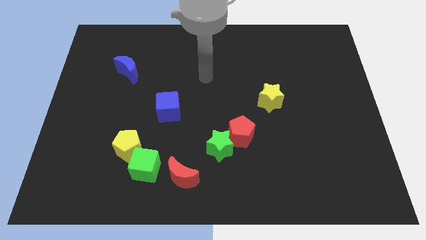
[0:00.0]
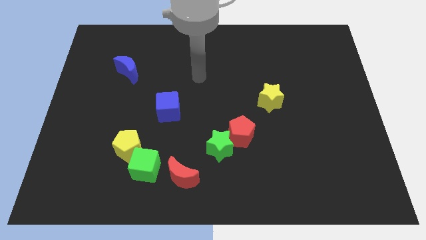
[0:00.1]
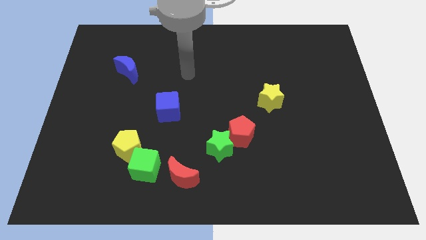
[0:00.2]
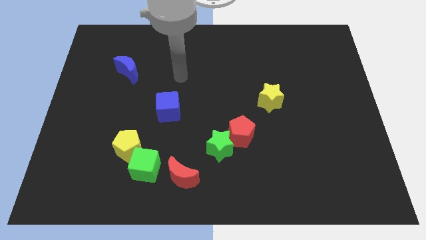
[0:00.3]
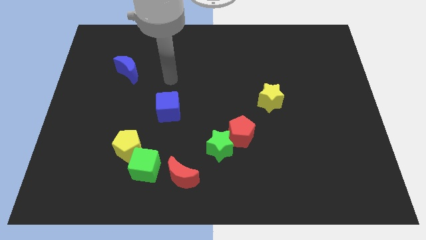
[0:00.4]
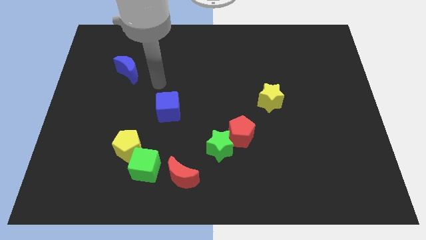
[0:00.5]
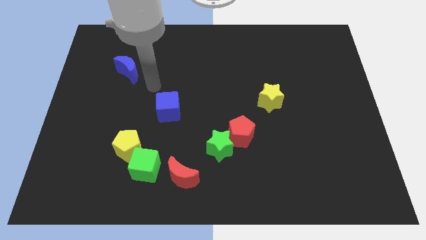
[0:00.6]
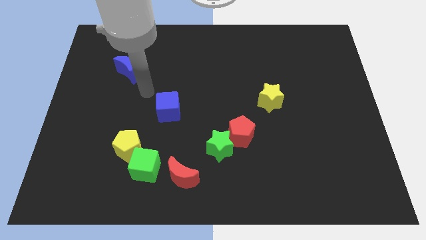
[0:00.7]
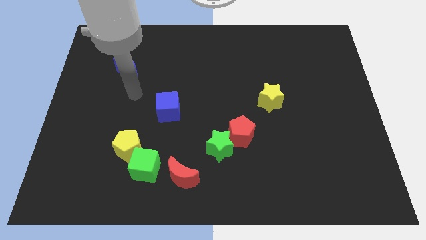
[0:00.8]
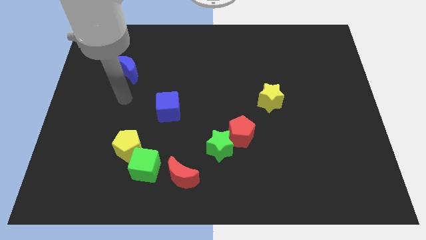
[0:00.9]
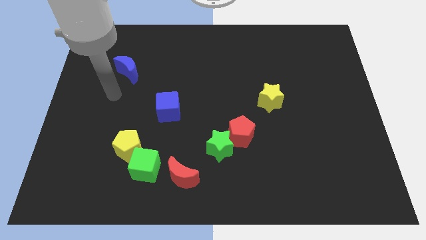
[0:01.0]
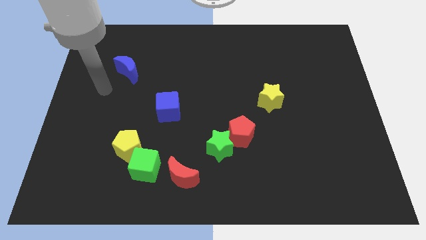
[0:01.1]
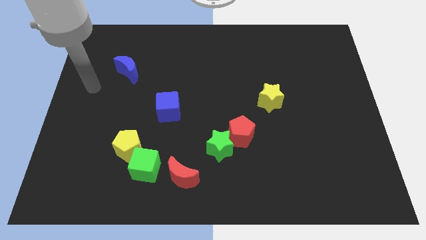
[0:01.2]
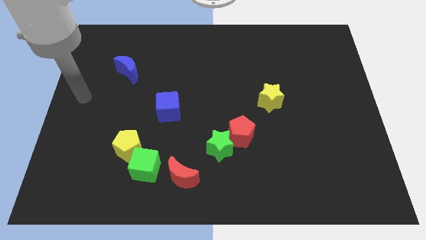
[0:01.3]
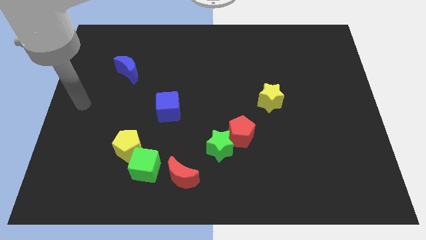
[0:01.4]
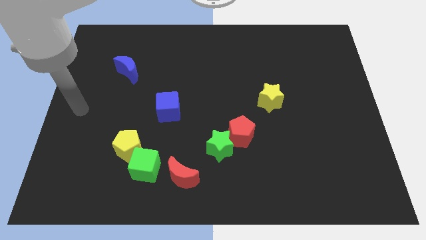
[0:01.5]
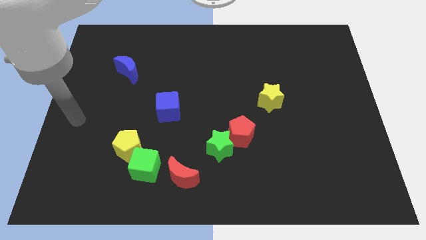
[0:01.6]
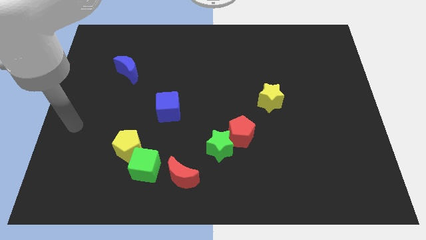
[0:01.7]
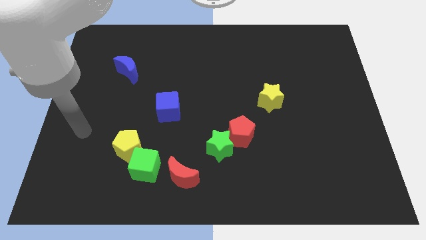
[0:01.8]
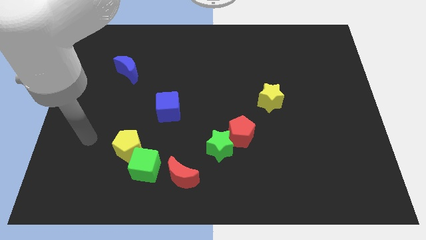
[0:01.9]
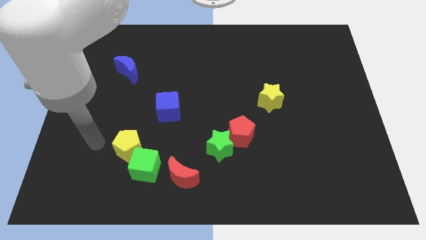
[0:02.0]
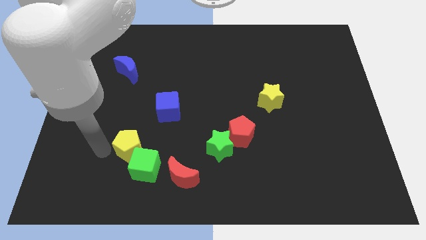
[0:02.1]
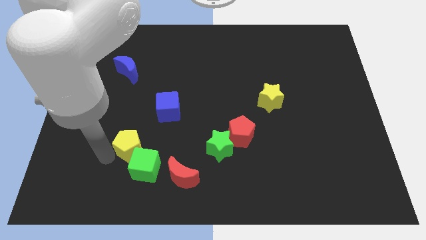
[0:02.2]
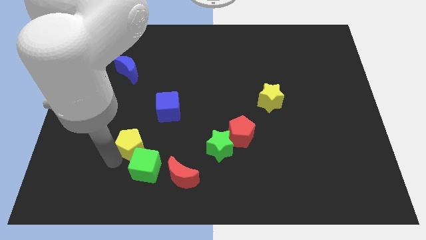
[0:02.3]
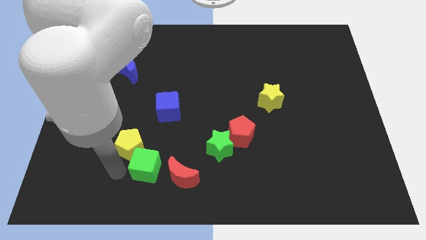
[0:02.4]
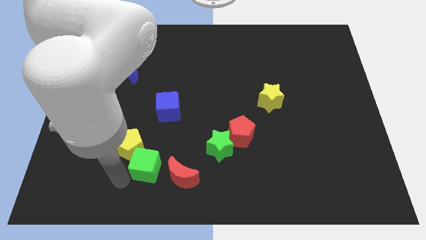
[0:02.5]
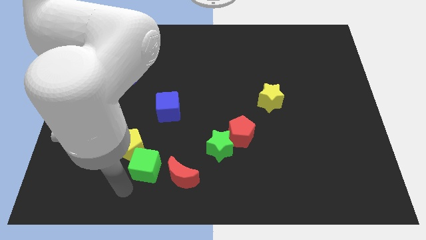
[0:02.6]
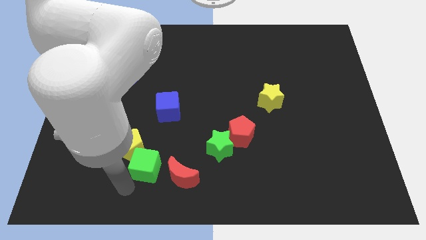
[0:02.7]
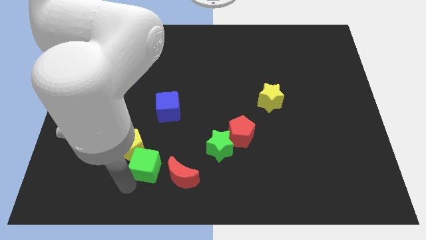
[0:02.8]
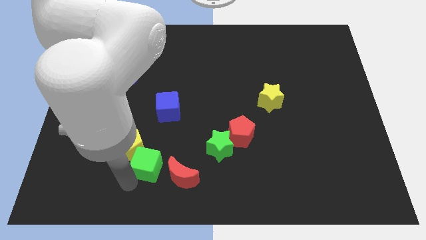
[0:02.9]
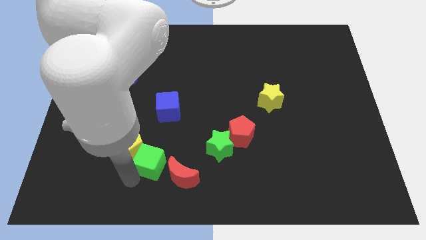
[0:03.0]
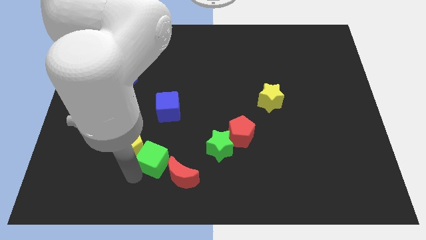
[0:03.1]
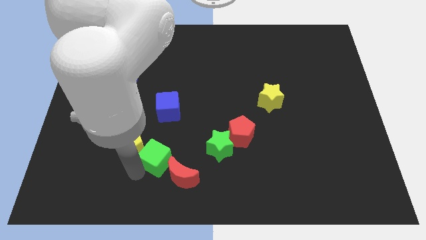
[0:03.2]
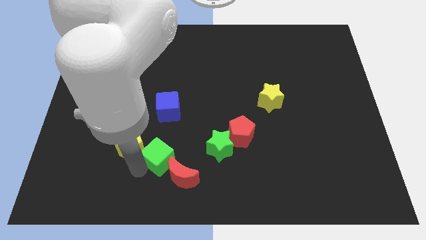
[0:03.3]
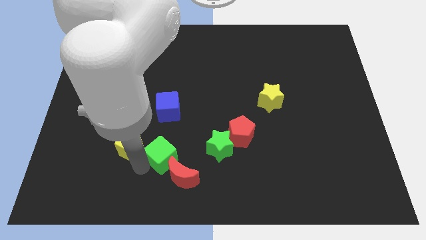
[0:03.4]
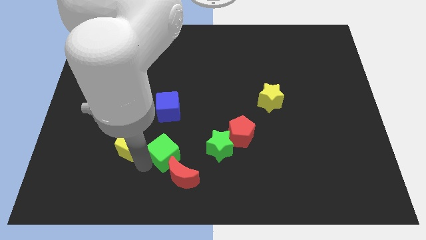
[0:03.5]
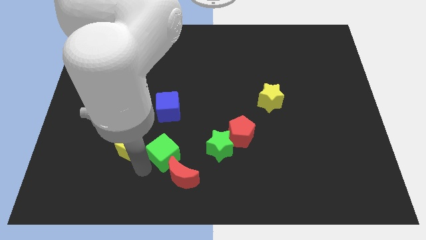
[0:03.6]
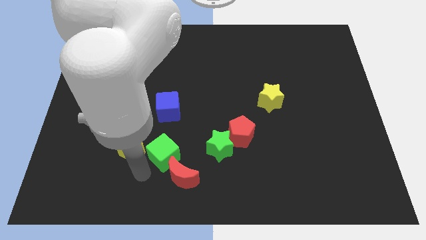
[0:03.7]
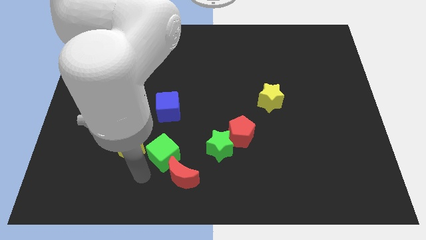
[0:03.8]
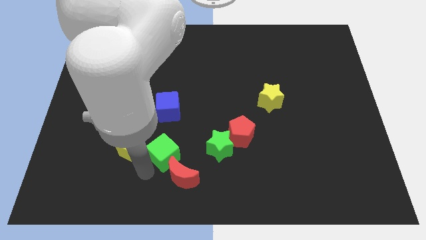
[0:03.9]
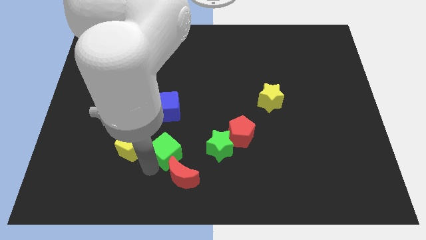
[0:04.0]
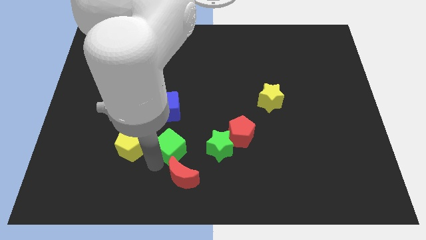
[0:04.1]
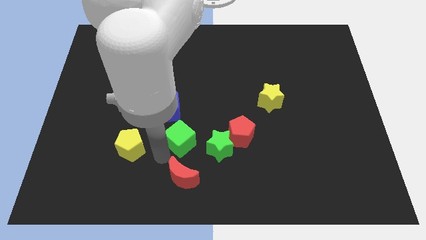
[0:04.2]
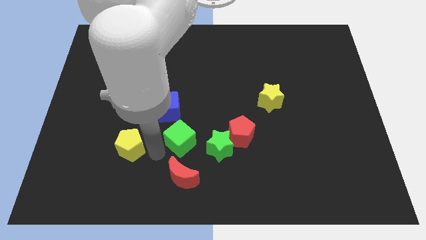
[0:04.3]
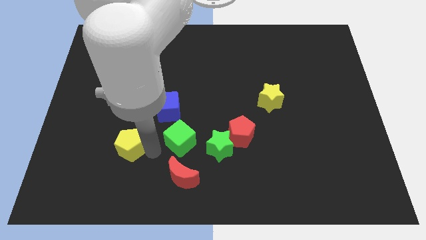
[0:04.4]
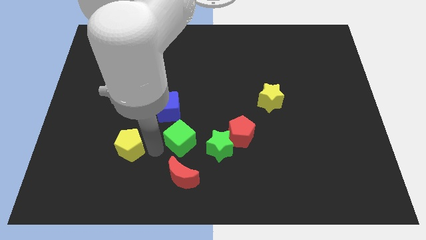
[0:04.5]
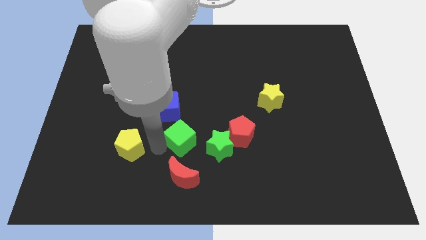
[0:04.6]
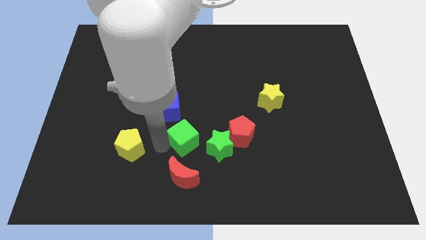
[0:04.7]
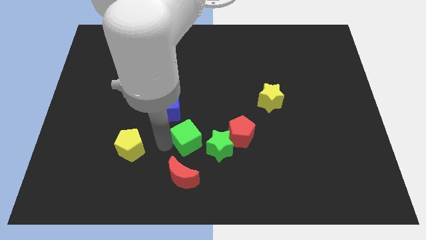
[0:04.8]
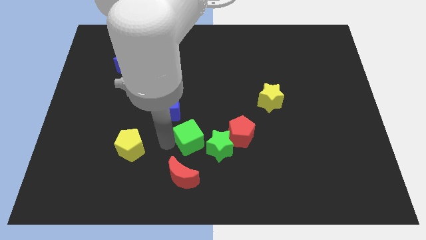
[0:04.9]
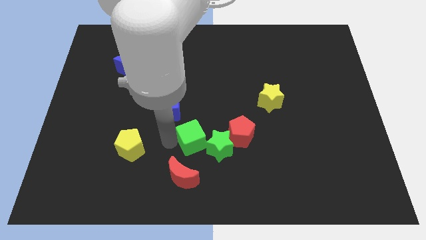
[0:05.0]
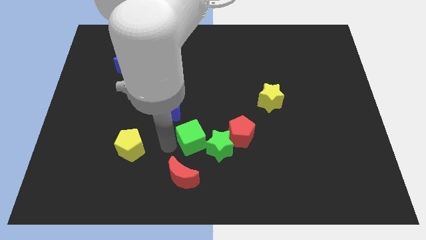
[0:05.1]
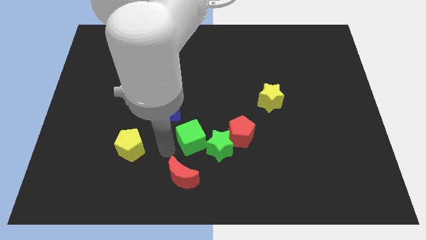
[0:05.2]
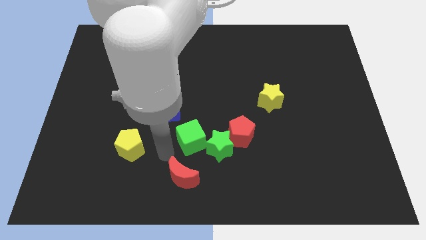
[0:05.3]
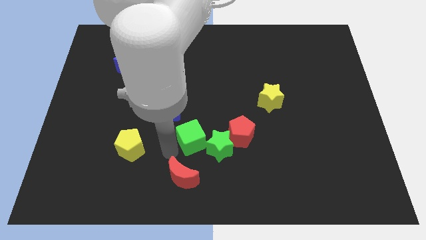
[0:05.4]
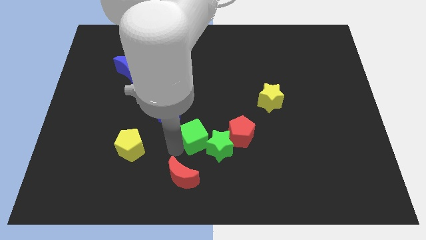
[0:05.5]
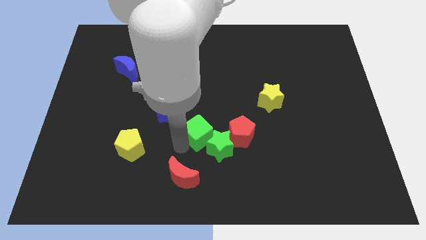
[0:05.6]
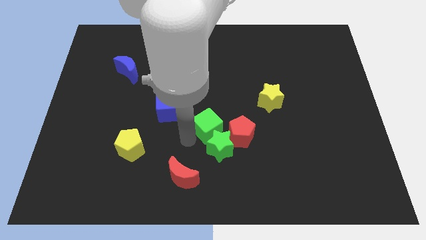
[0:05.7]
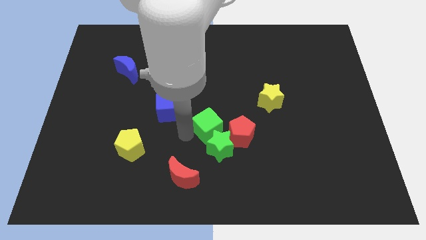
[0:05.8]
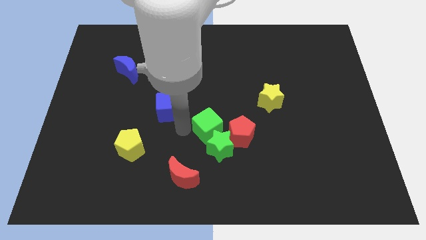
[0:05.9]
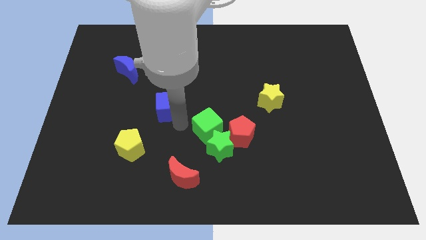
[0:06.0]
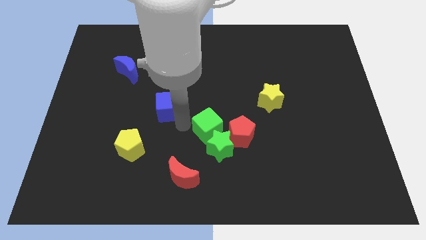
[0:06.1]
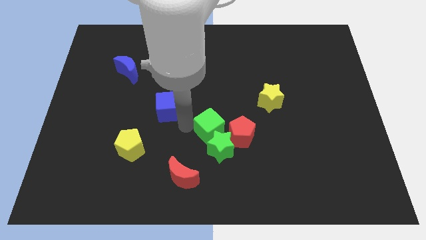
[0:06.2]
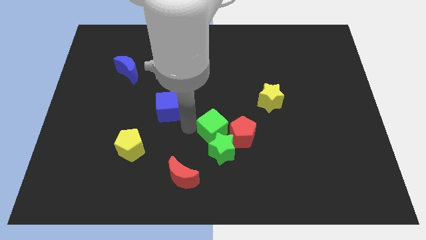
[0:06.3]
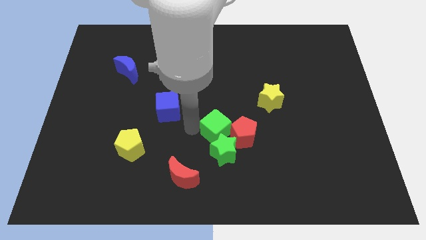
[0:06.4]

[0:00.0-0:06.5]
slide the green cube close to the red pentagon
